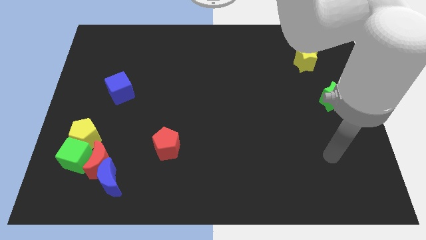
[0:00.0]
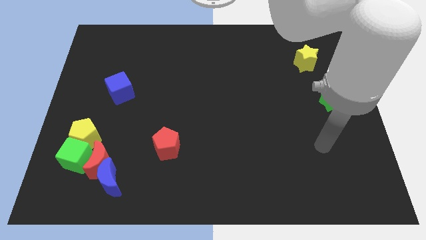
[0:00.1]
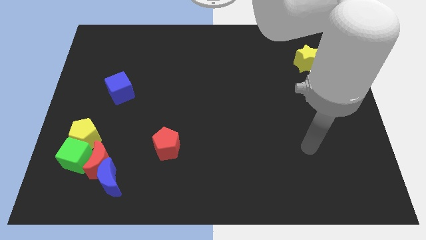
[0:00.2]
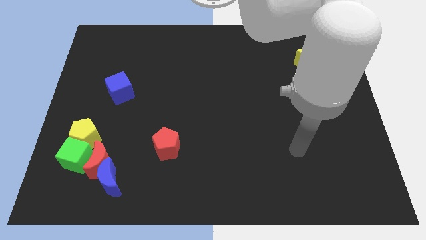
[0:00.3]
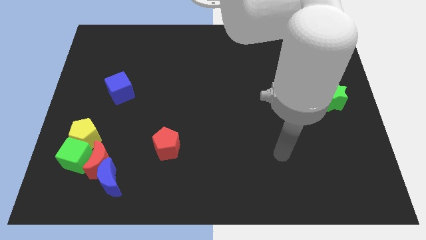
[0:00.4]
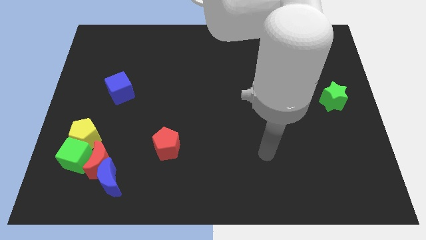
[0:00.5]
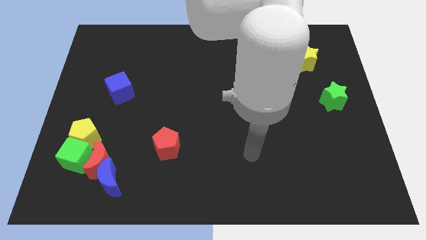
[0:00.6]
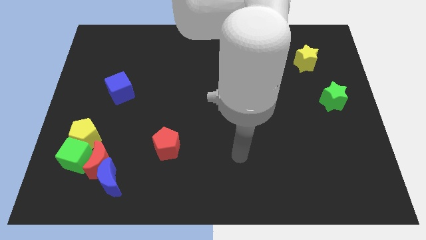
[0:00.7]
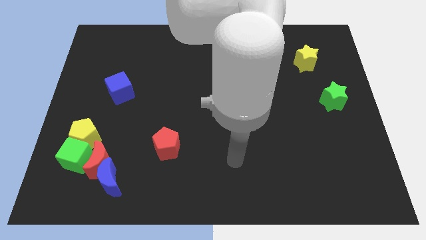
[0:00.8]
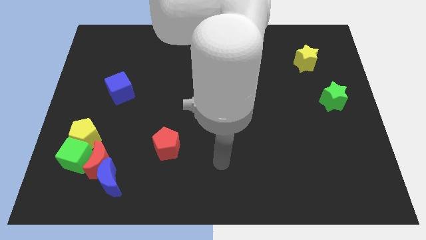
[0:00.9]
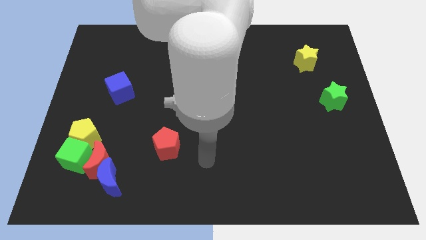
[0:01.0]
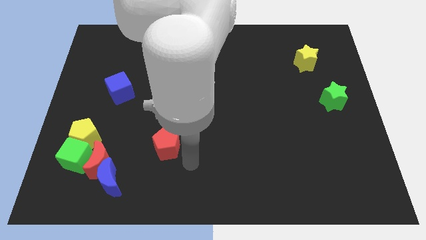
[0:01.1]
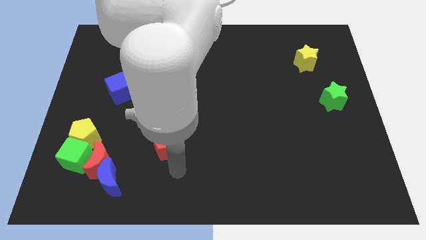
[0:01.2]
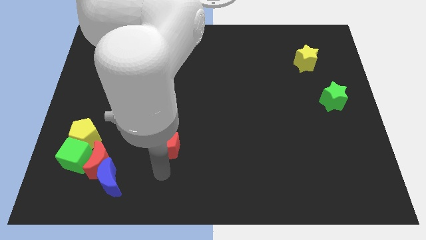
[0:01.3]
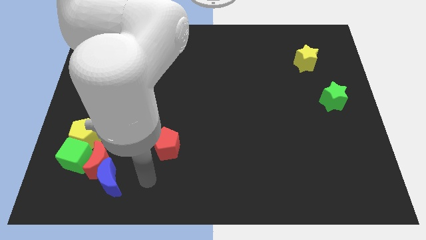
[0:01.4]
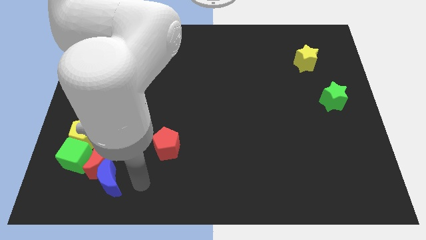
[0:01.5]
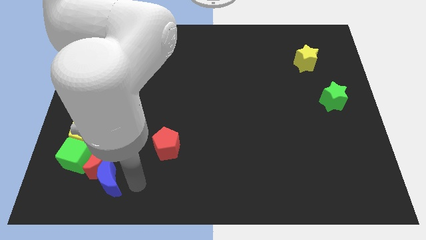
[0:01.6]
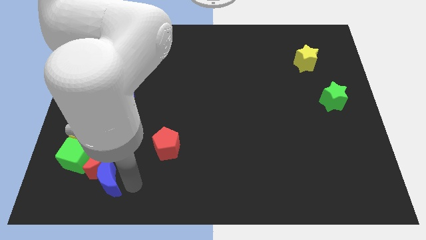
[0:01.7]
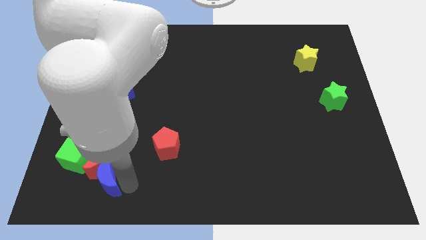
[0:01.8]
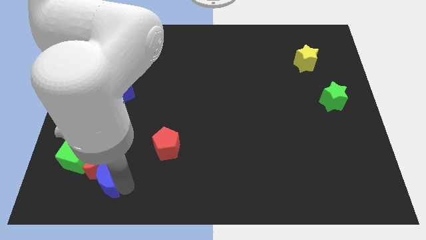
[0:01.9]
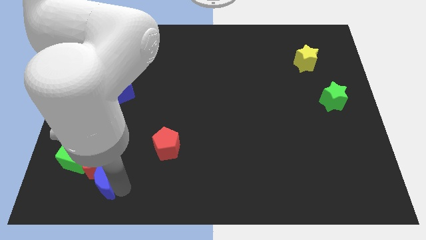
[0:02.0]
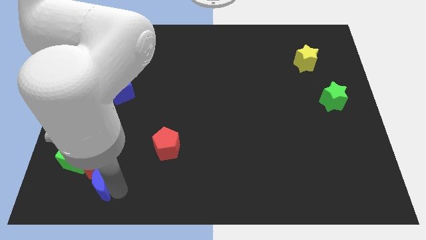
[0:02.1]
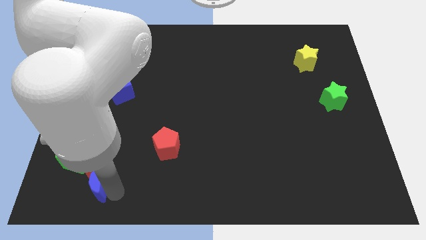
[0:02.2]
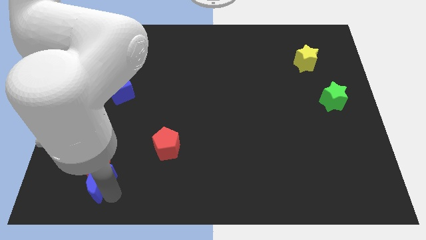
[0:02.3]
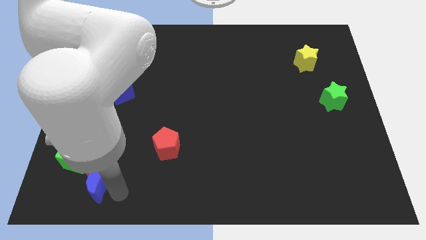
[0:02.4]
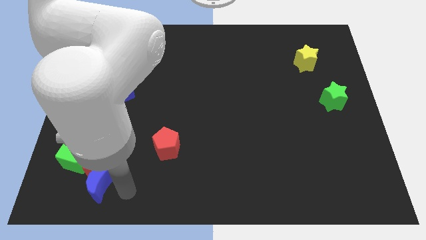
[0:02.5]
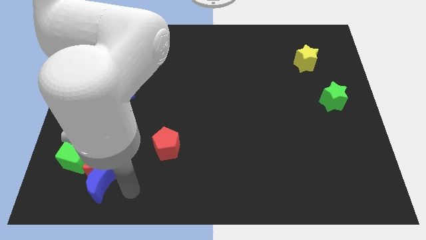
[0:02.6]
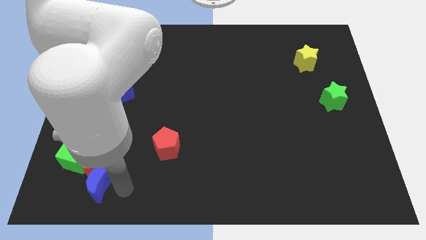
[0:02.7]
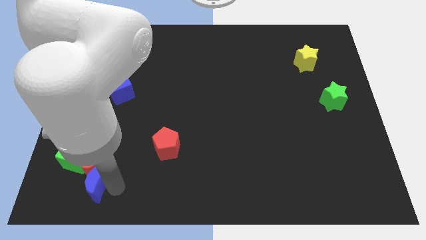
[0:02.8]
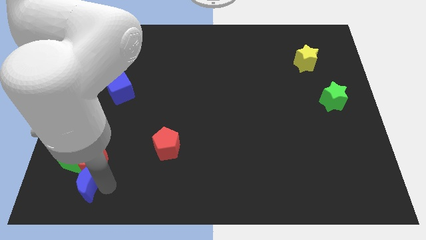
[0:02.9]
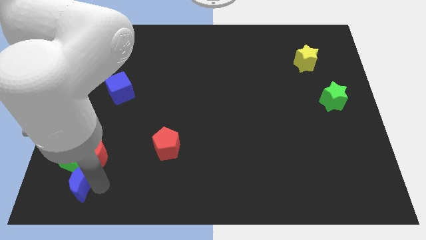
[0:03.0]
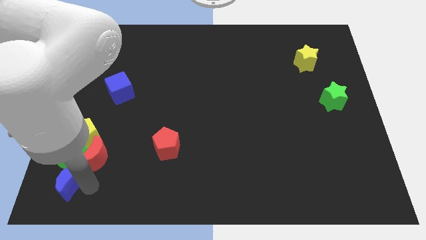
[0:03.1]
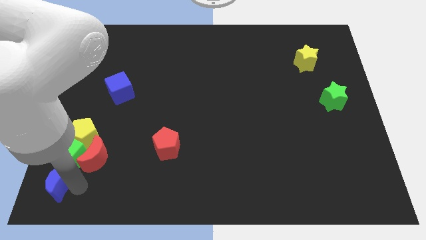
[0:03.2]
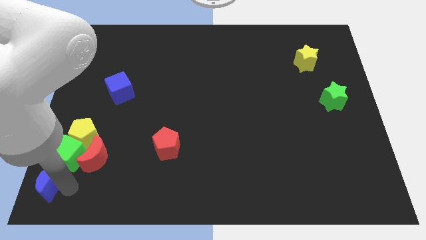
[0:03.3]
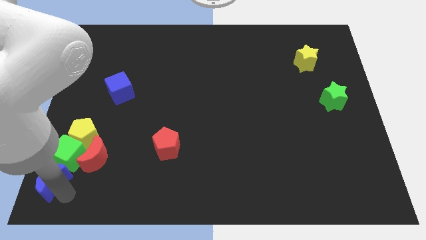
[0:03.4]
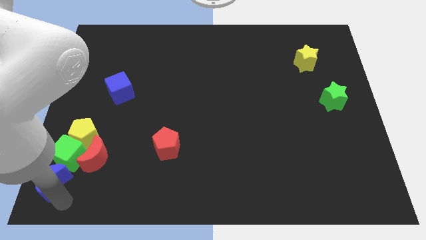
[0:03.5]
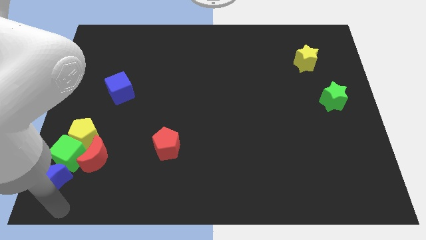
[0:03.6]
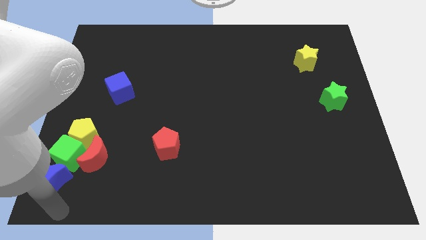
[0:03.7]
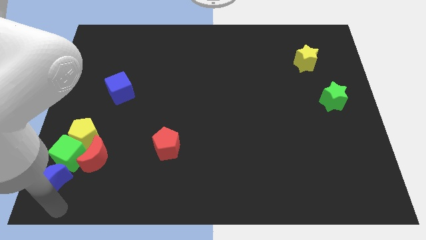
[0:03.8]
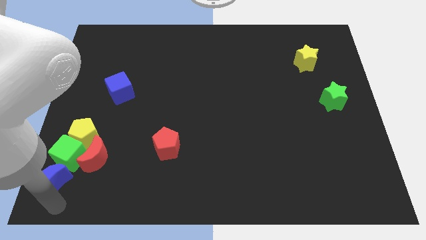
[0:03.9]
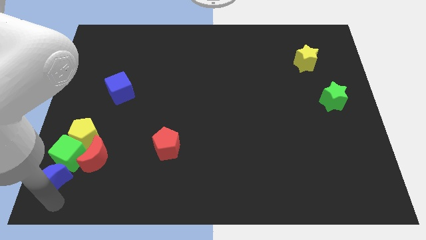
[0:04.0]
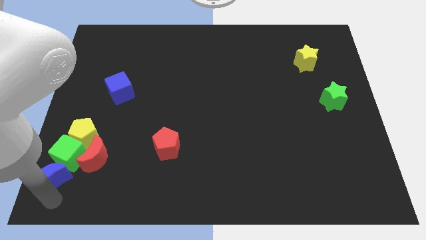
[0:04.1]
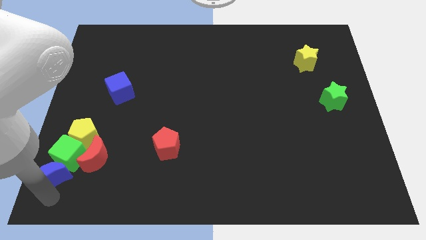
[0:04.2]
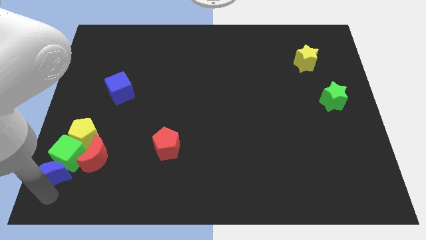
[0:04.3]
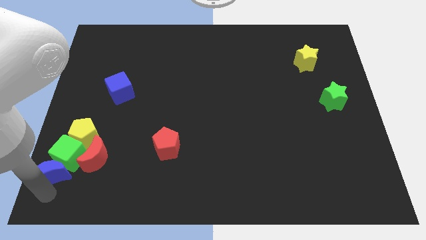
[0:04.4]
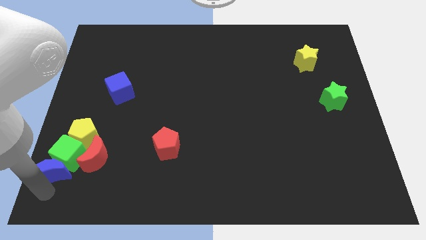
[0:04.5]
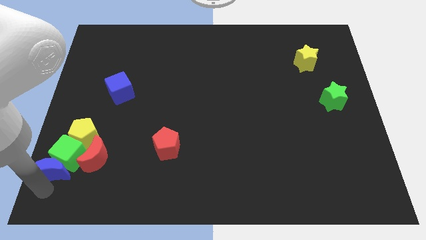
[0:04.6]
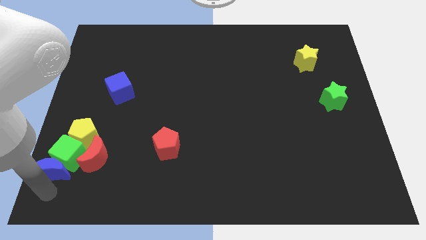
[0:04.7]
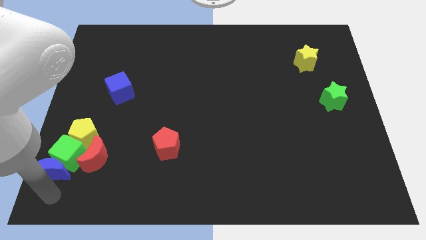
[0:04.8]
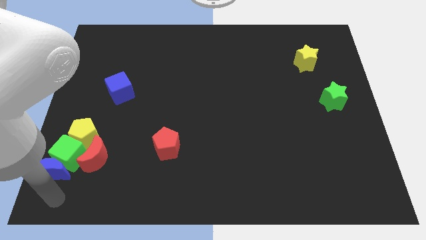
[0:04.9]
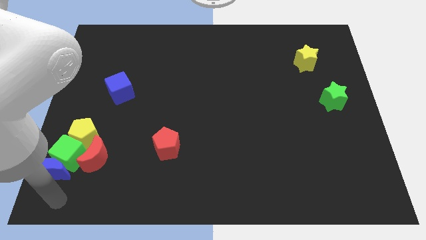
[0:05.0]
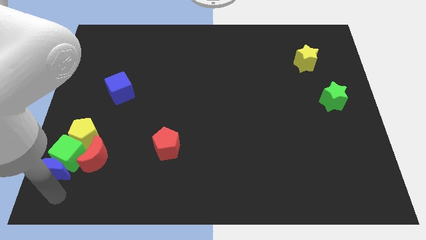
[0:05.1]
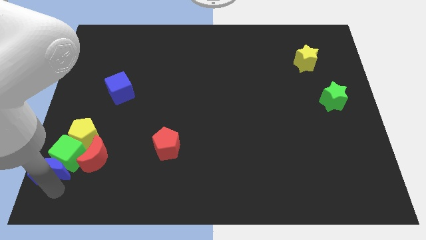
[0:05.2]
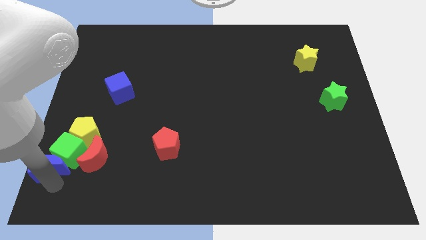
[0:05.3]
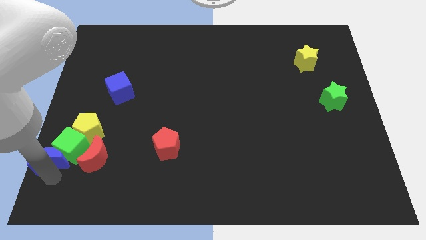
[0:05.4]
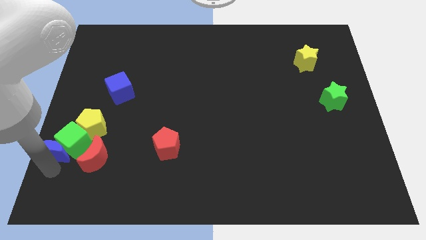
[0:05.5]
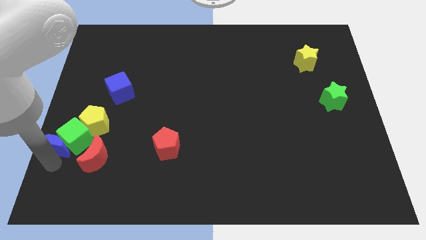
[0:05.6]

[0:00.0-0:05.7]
put the blue moon to the center left

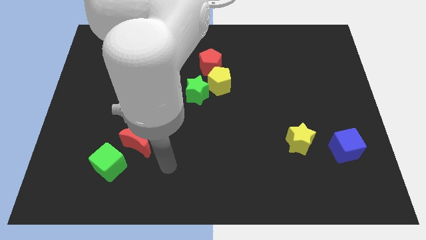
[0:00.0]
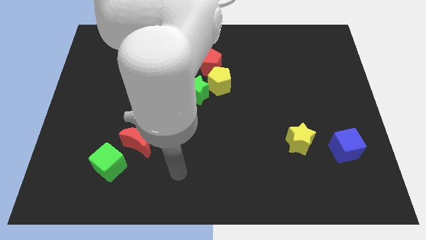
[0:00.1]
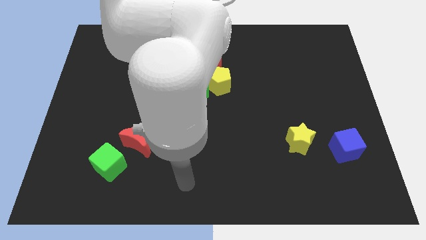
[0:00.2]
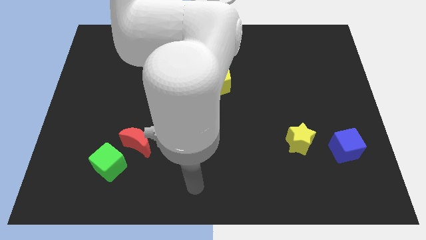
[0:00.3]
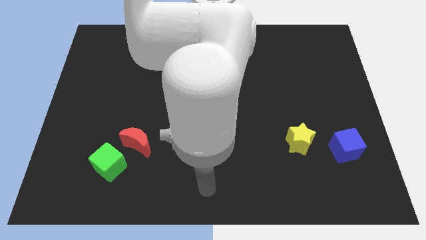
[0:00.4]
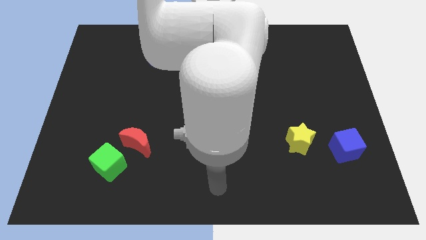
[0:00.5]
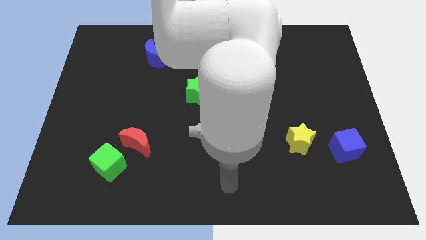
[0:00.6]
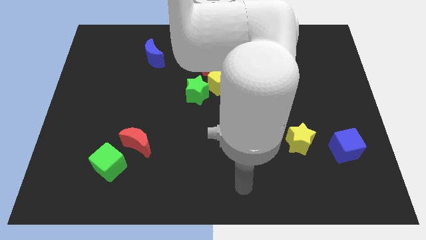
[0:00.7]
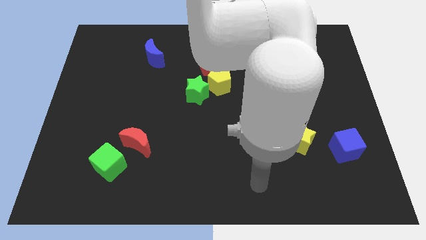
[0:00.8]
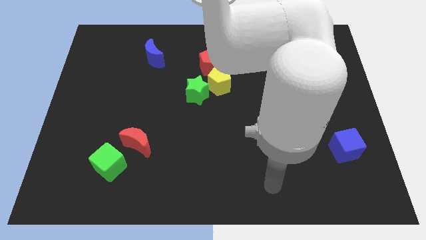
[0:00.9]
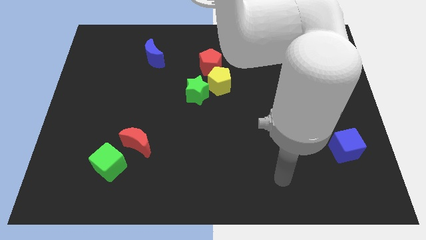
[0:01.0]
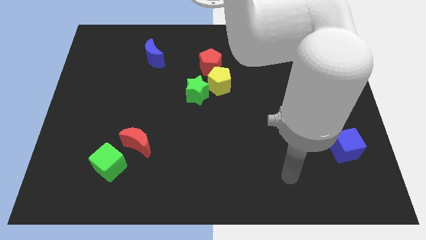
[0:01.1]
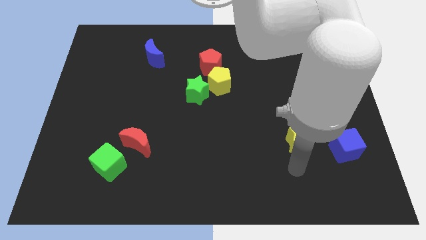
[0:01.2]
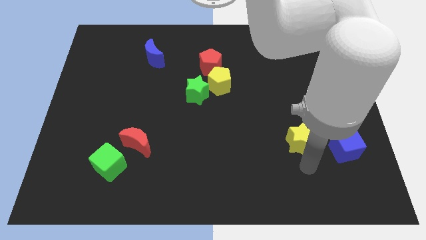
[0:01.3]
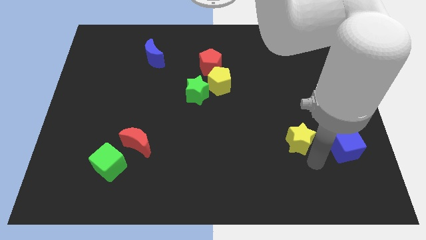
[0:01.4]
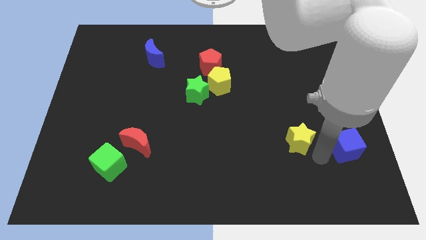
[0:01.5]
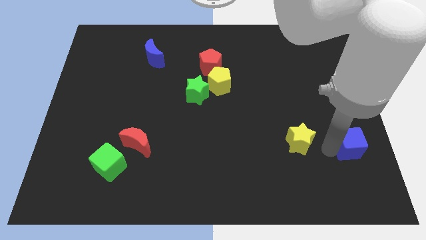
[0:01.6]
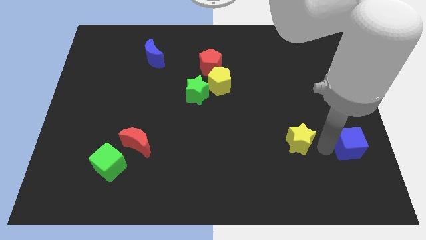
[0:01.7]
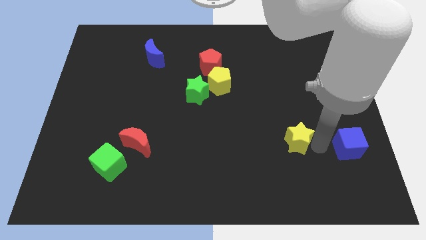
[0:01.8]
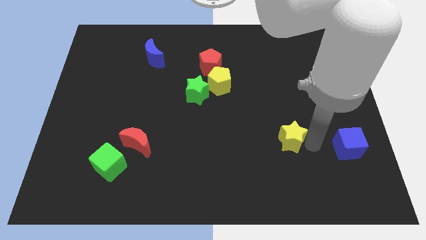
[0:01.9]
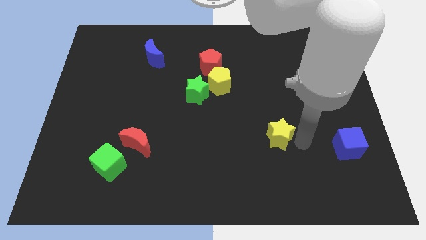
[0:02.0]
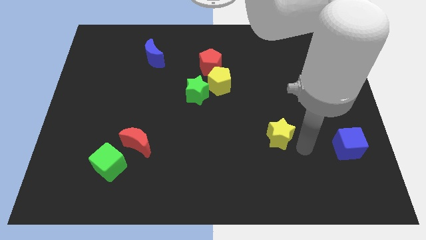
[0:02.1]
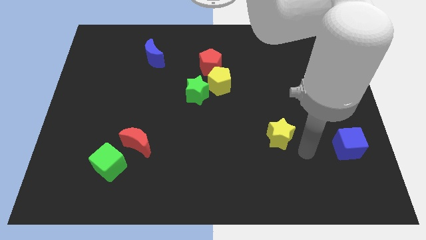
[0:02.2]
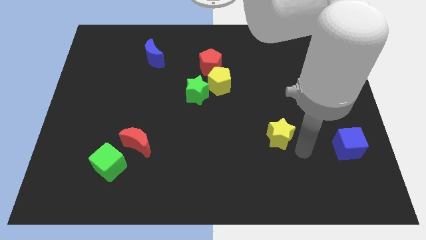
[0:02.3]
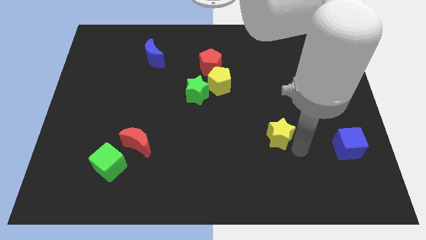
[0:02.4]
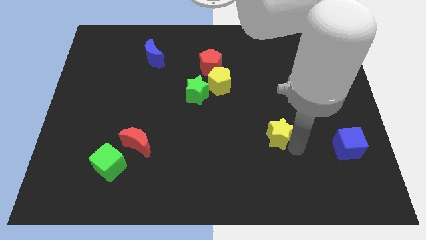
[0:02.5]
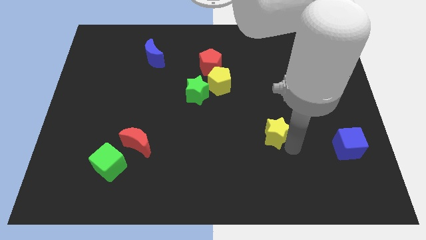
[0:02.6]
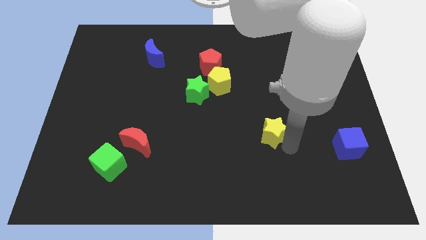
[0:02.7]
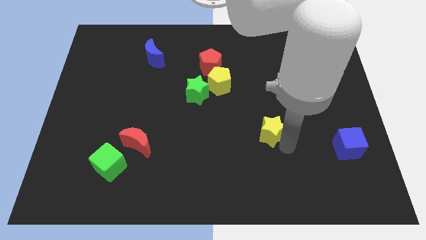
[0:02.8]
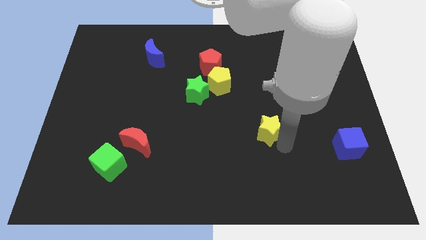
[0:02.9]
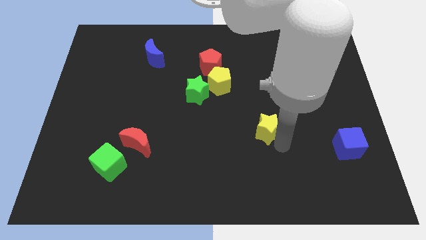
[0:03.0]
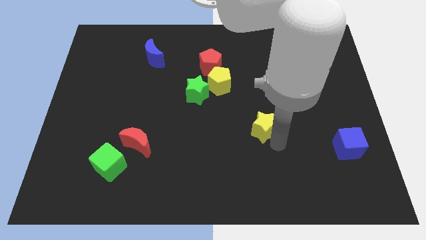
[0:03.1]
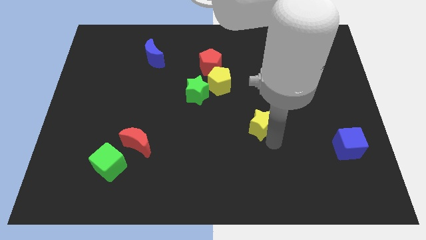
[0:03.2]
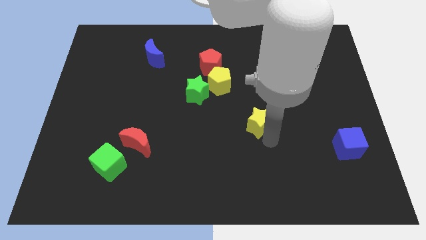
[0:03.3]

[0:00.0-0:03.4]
slide the yellow star to the center of the board
